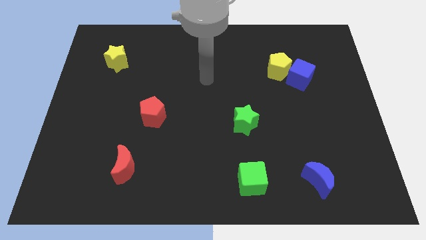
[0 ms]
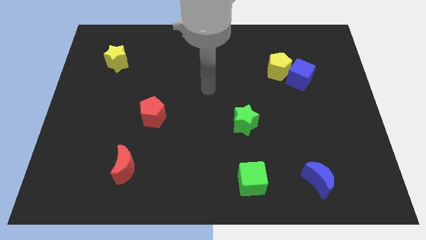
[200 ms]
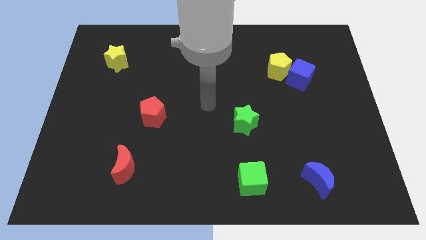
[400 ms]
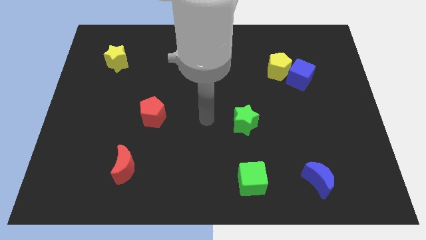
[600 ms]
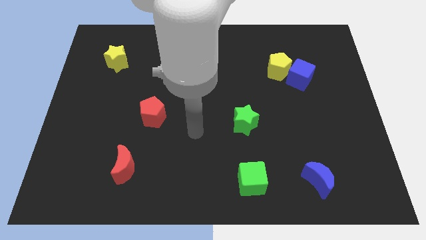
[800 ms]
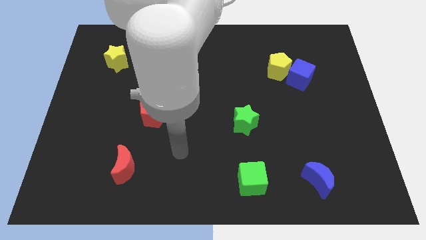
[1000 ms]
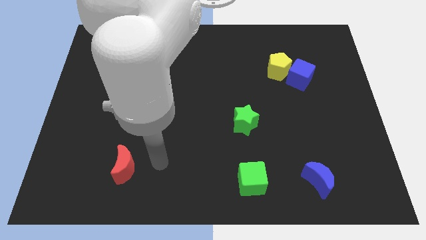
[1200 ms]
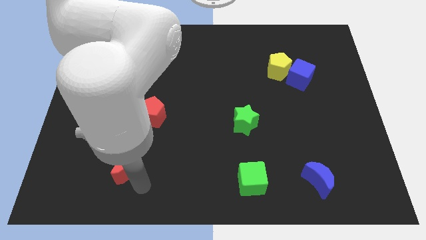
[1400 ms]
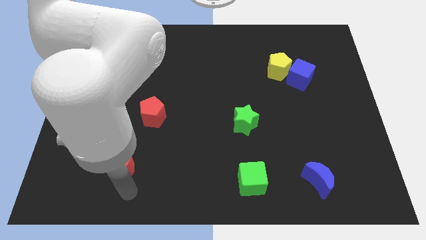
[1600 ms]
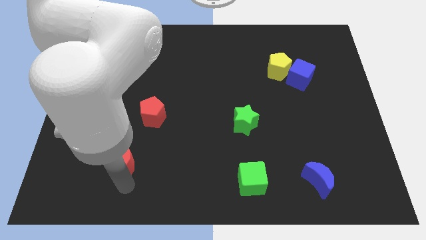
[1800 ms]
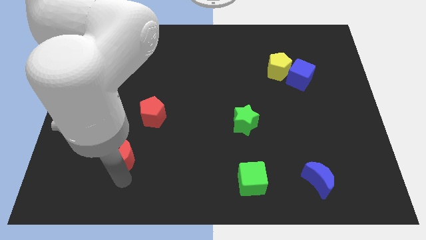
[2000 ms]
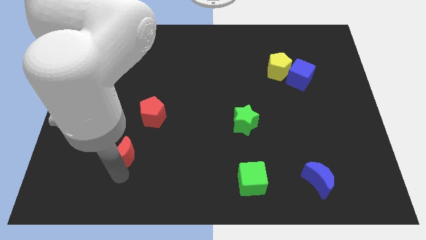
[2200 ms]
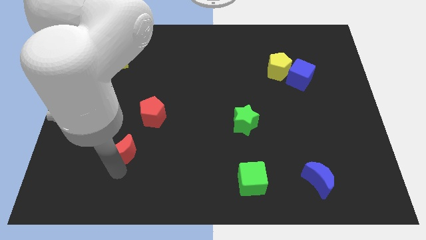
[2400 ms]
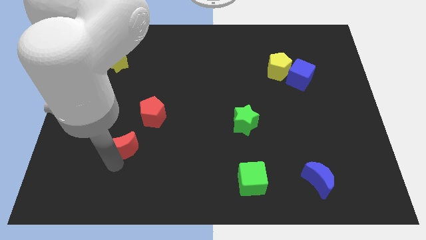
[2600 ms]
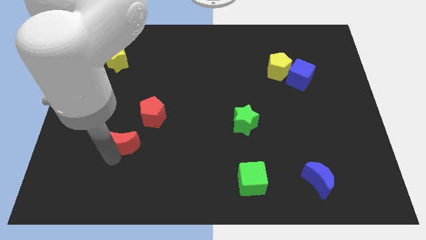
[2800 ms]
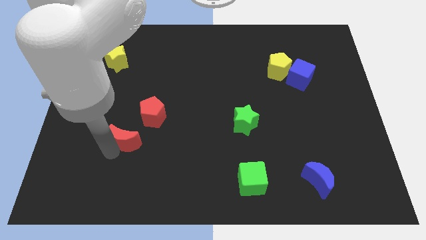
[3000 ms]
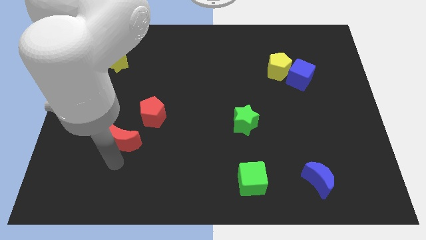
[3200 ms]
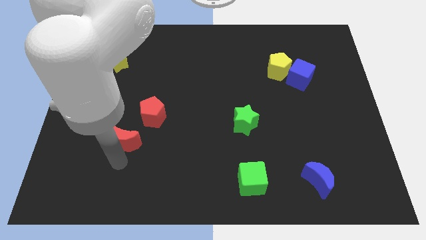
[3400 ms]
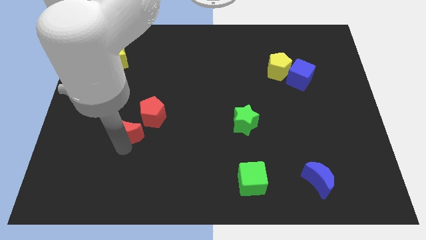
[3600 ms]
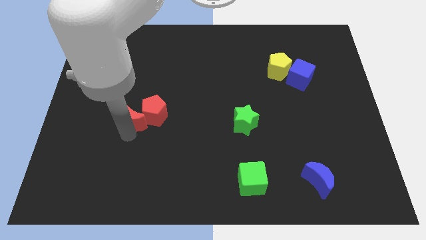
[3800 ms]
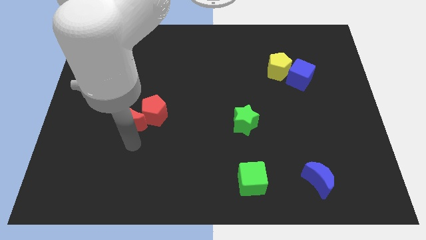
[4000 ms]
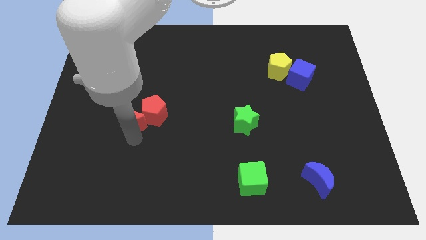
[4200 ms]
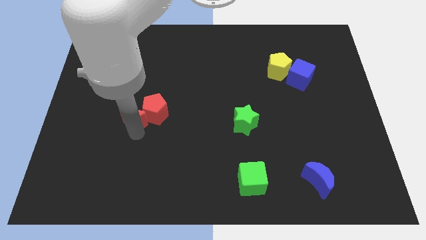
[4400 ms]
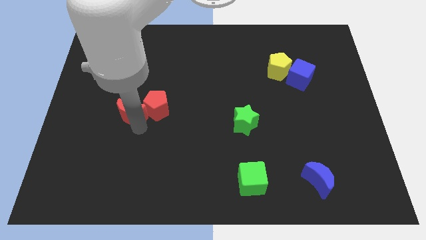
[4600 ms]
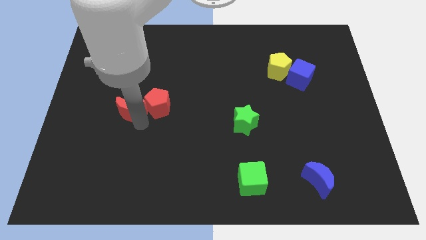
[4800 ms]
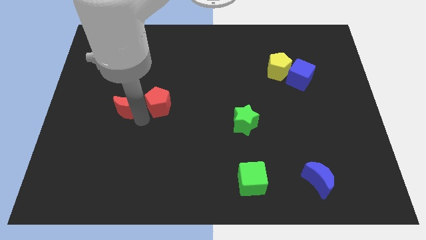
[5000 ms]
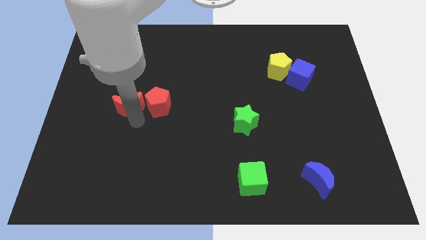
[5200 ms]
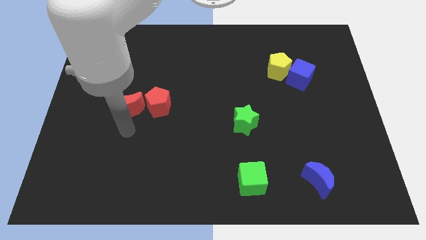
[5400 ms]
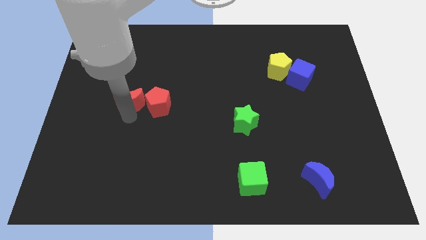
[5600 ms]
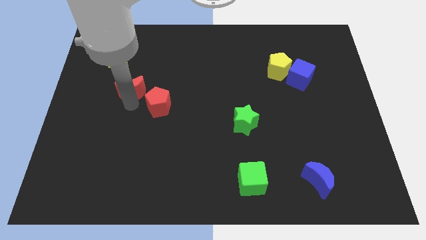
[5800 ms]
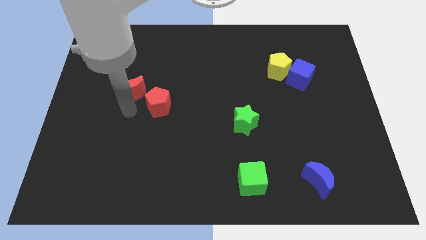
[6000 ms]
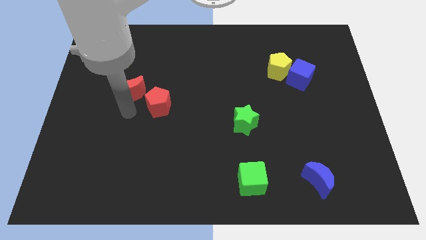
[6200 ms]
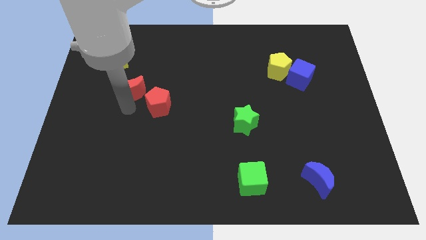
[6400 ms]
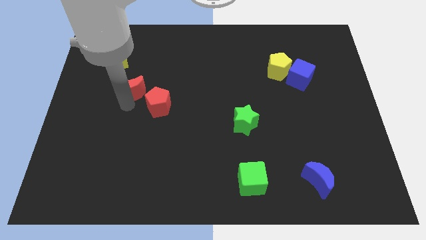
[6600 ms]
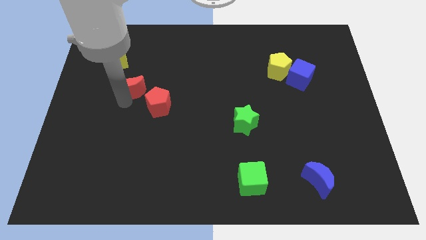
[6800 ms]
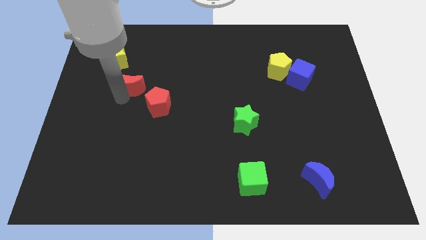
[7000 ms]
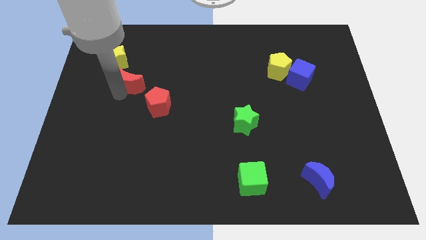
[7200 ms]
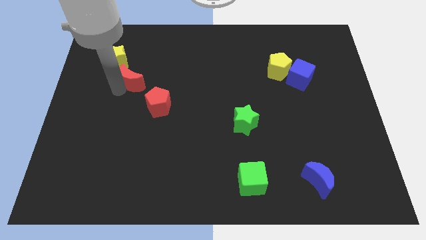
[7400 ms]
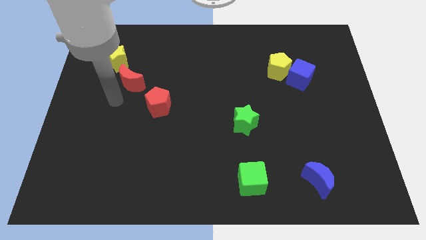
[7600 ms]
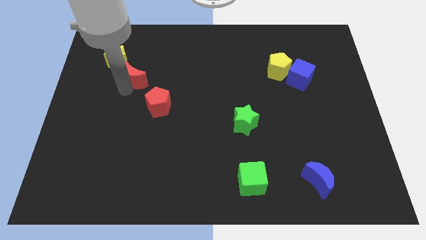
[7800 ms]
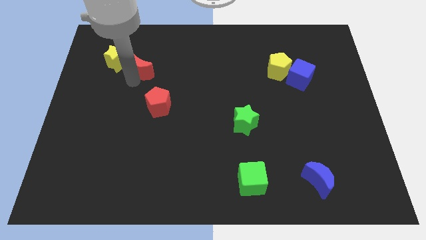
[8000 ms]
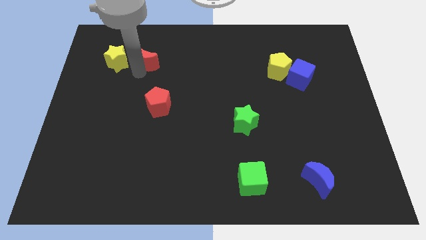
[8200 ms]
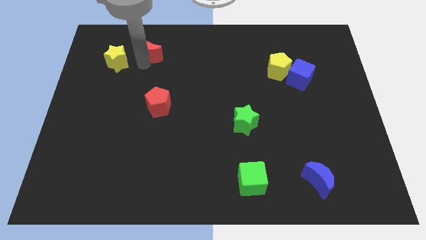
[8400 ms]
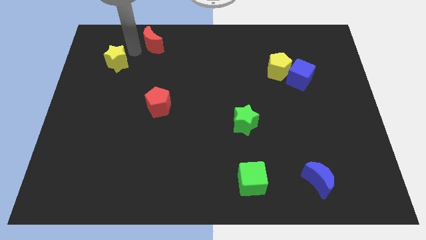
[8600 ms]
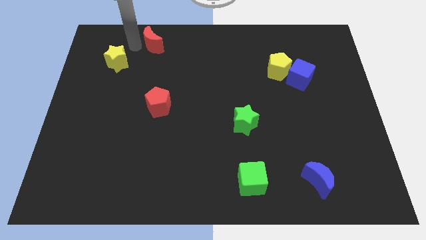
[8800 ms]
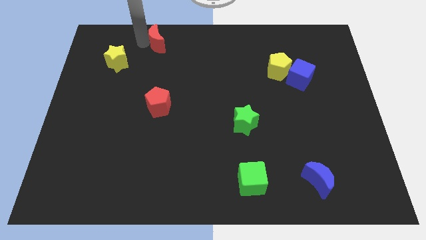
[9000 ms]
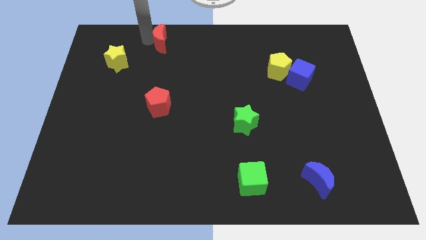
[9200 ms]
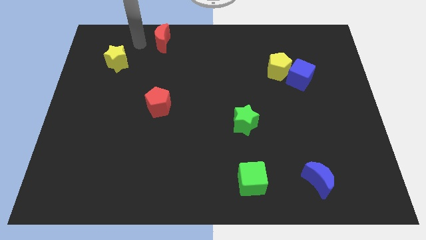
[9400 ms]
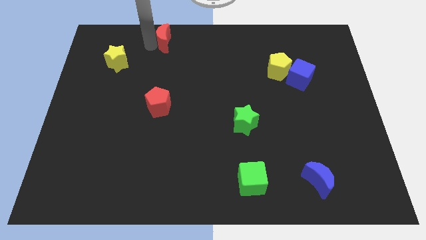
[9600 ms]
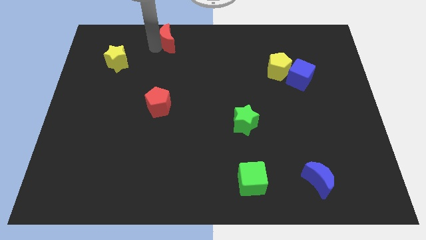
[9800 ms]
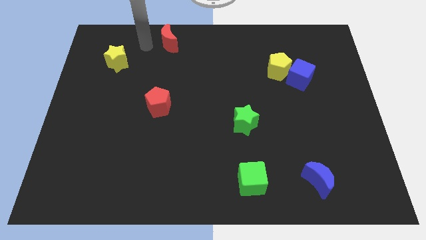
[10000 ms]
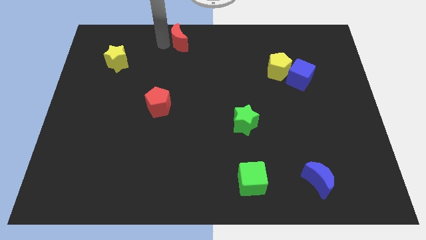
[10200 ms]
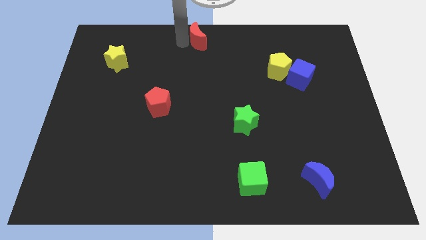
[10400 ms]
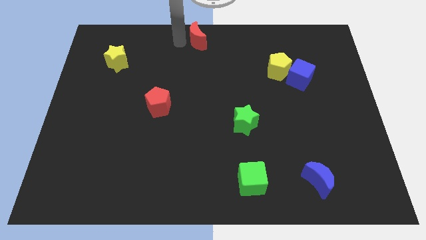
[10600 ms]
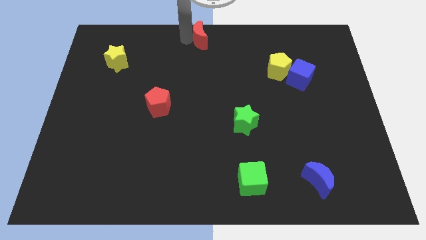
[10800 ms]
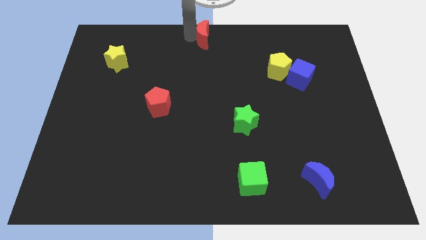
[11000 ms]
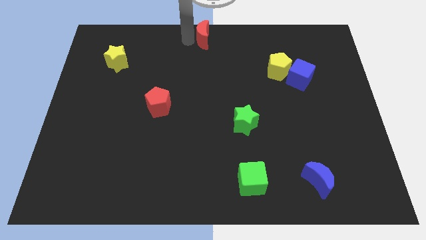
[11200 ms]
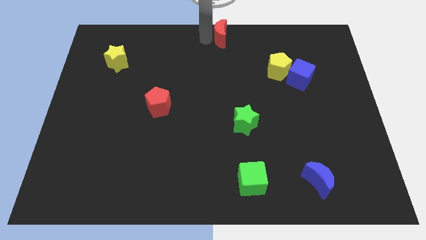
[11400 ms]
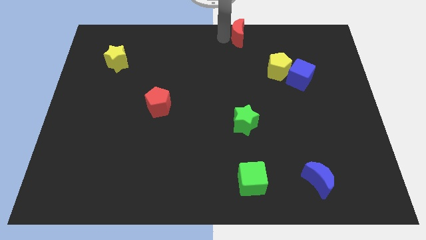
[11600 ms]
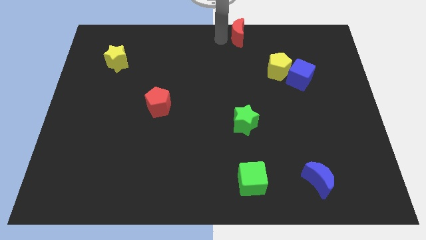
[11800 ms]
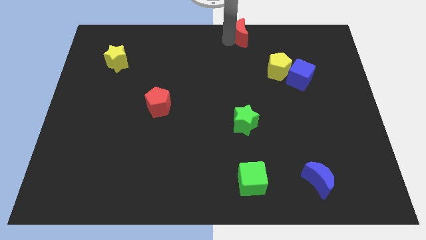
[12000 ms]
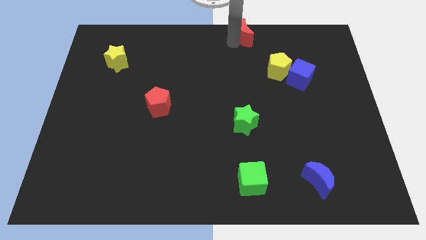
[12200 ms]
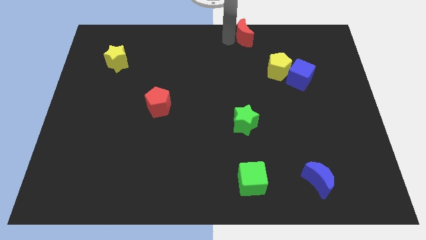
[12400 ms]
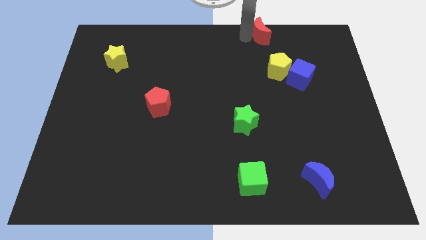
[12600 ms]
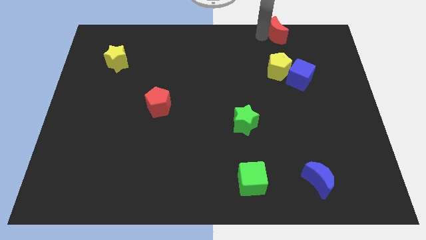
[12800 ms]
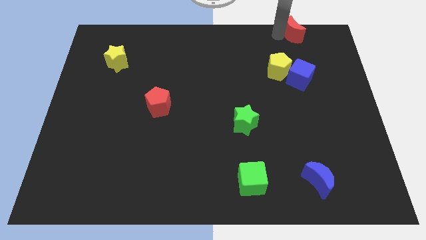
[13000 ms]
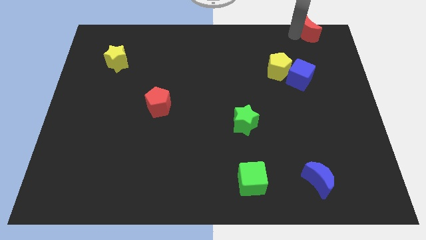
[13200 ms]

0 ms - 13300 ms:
push the red moon to the top right
